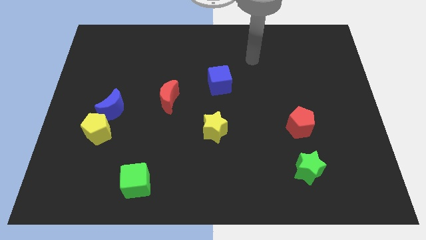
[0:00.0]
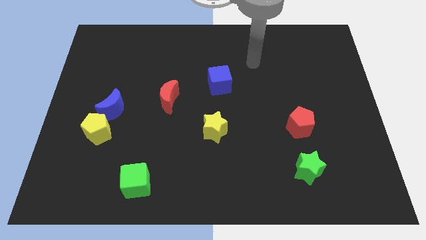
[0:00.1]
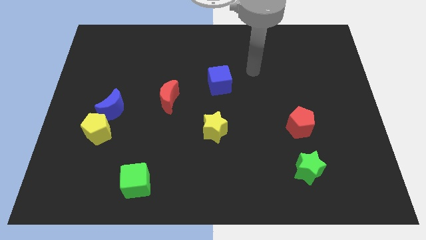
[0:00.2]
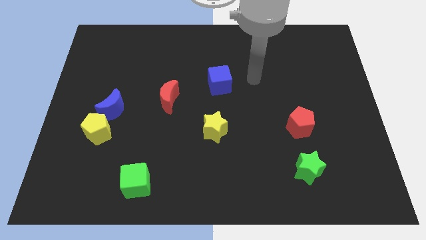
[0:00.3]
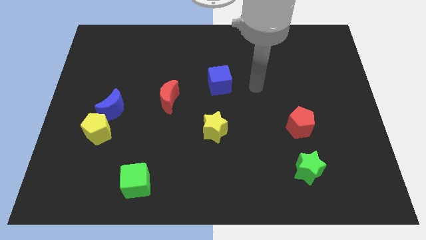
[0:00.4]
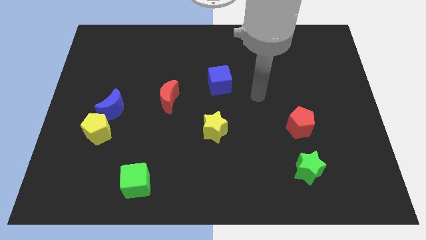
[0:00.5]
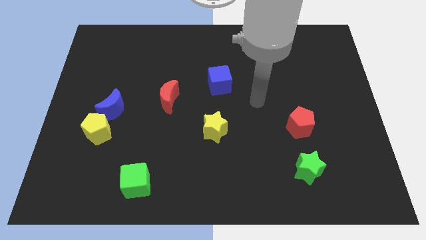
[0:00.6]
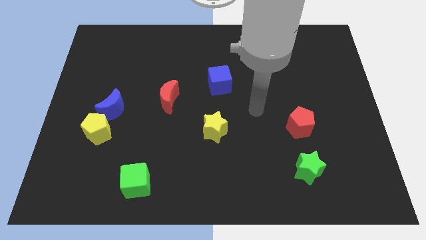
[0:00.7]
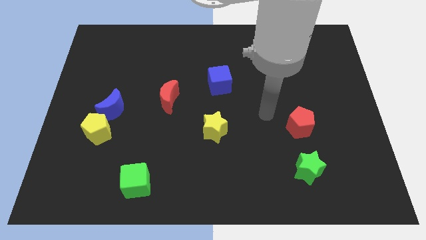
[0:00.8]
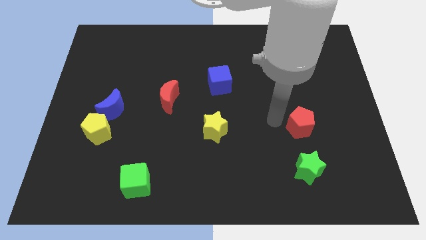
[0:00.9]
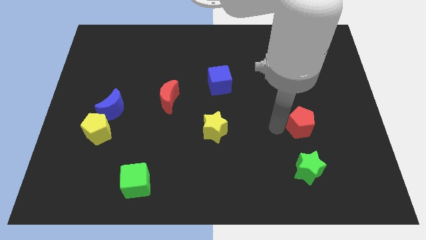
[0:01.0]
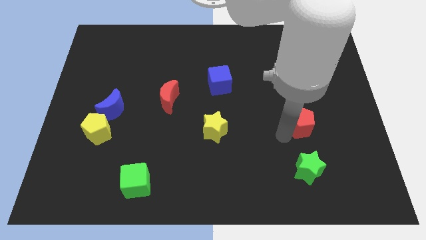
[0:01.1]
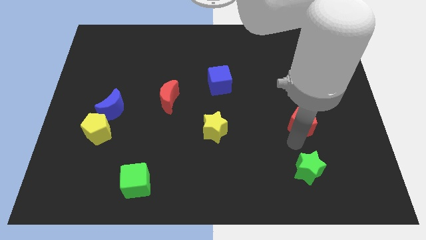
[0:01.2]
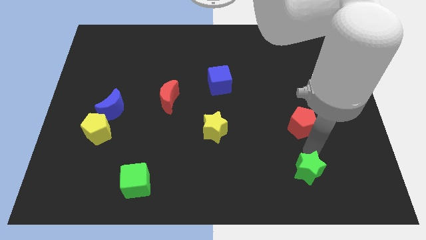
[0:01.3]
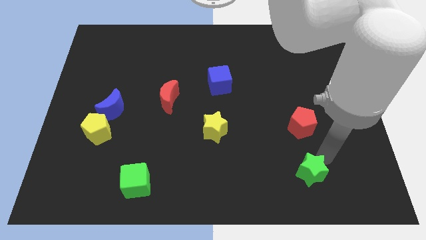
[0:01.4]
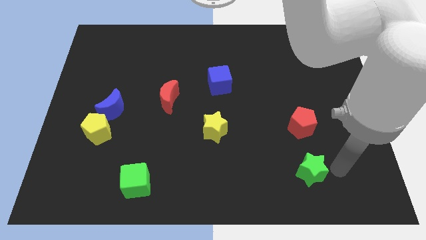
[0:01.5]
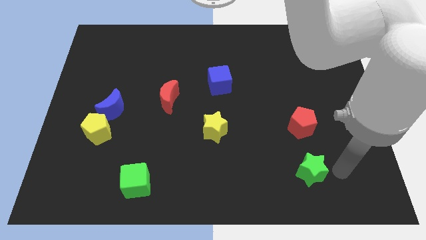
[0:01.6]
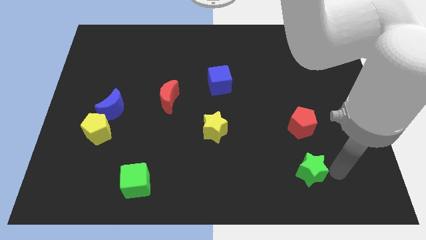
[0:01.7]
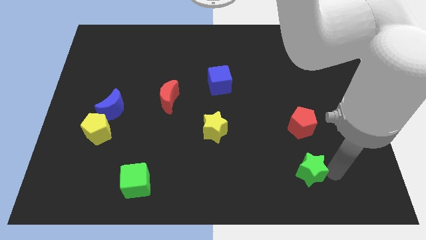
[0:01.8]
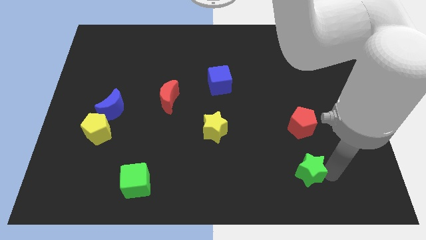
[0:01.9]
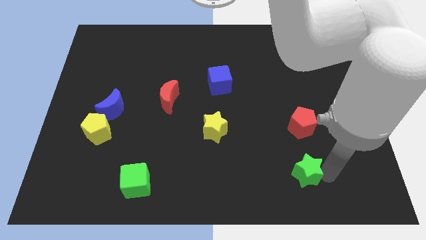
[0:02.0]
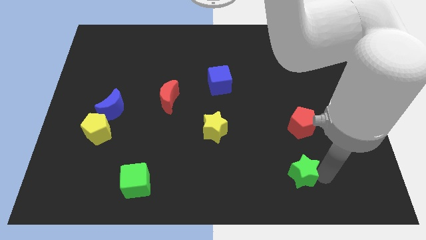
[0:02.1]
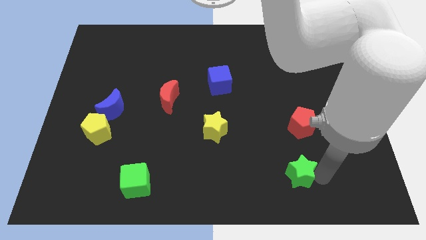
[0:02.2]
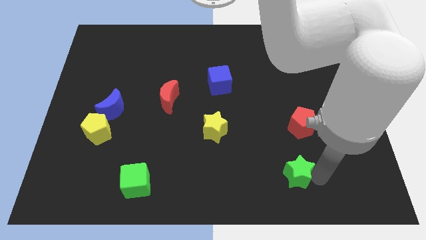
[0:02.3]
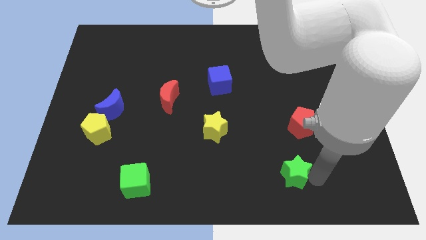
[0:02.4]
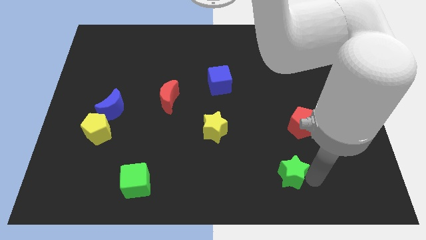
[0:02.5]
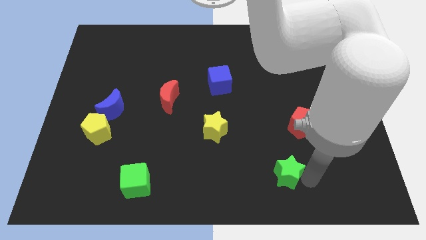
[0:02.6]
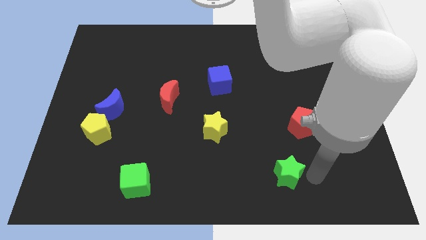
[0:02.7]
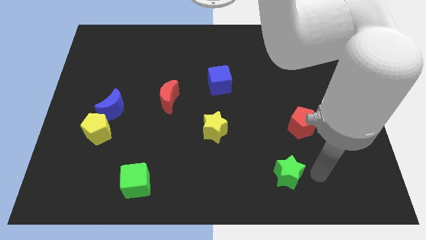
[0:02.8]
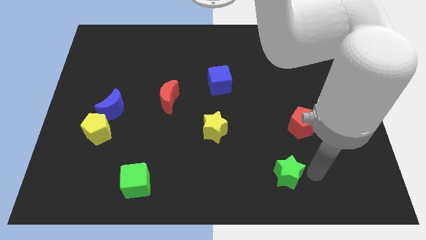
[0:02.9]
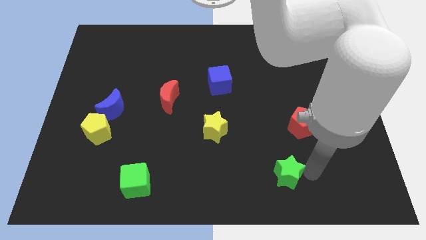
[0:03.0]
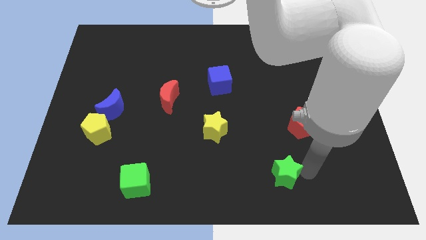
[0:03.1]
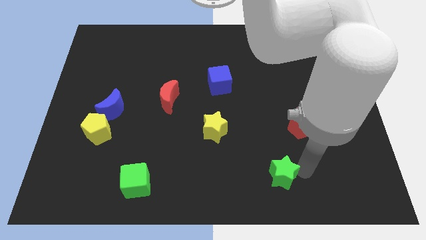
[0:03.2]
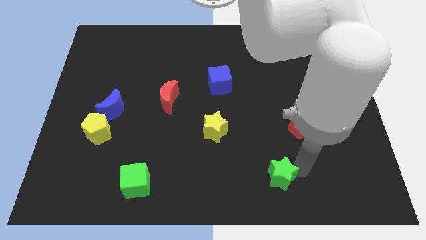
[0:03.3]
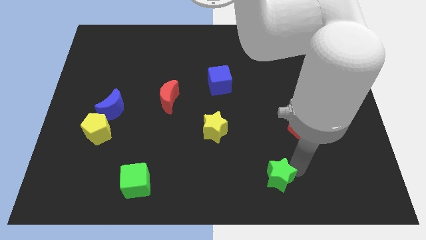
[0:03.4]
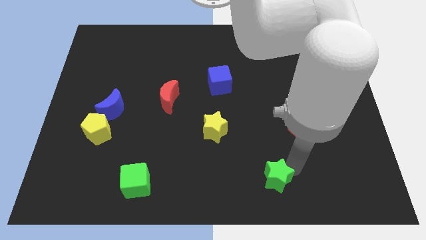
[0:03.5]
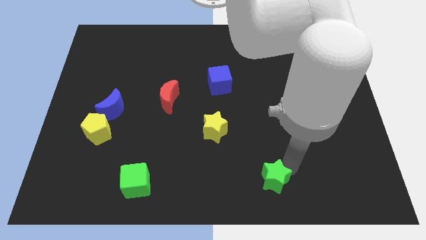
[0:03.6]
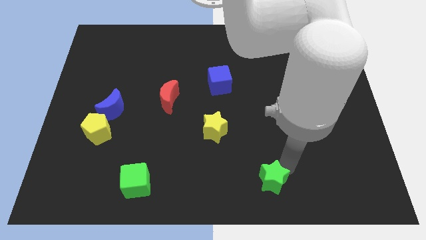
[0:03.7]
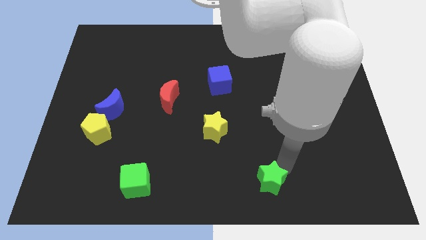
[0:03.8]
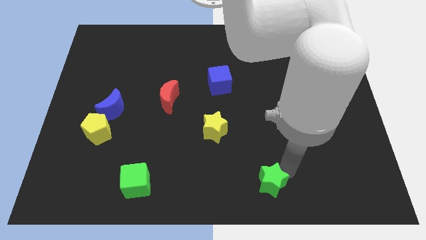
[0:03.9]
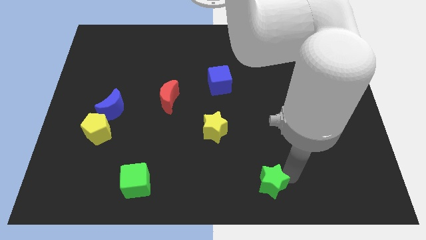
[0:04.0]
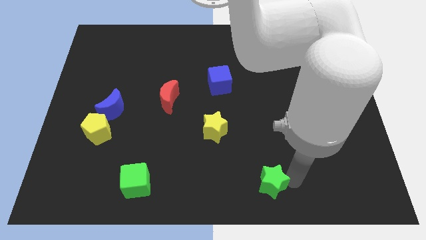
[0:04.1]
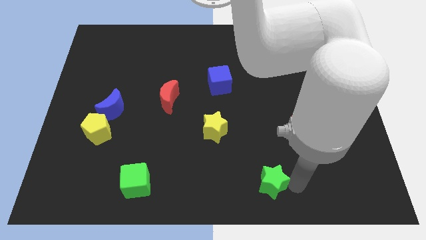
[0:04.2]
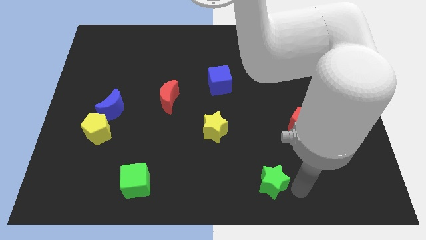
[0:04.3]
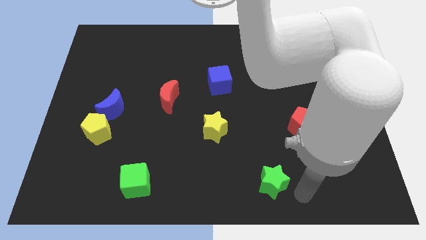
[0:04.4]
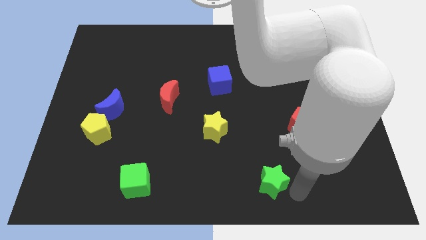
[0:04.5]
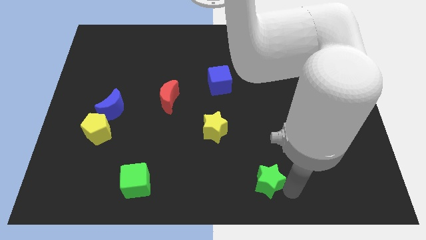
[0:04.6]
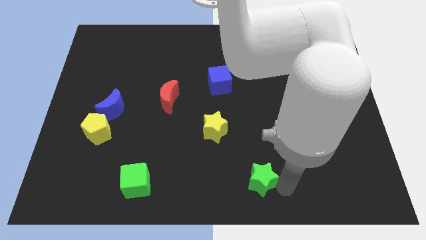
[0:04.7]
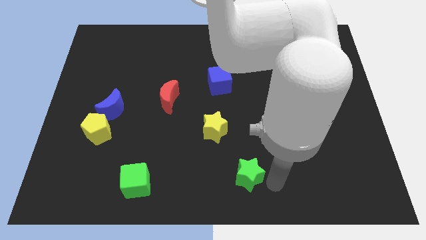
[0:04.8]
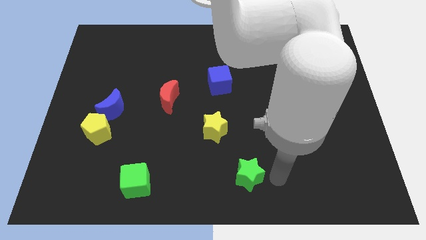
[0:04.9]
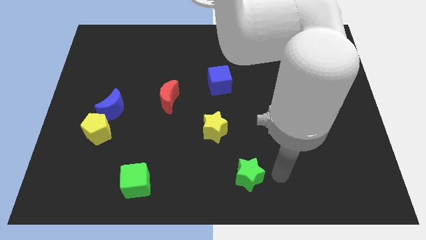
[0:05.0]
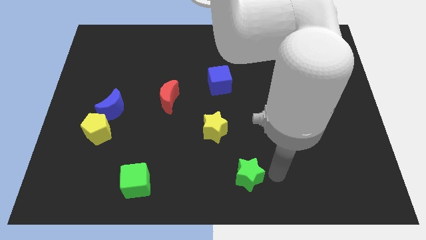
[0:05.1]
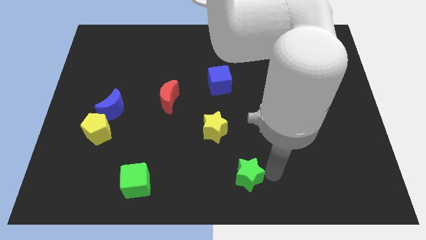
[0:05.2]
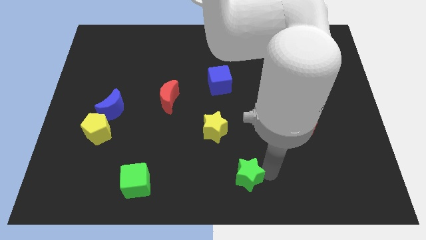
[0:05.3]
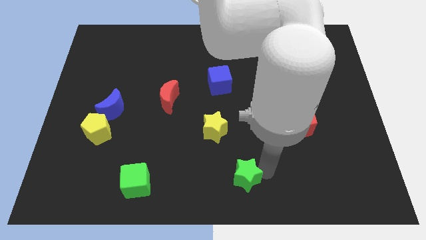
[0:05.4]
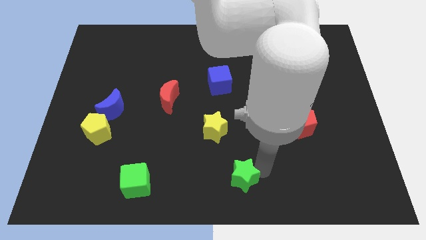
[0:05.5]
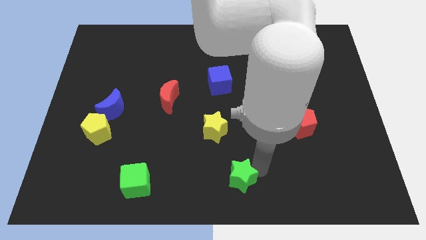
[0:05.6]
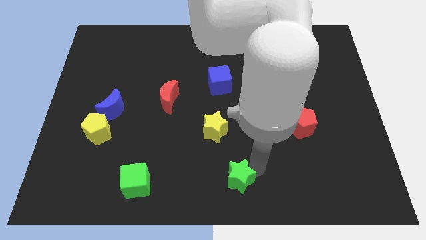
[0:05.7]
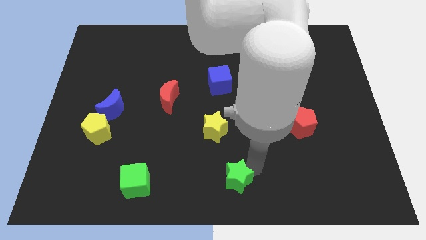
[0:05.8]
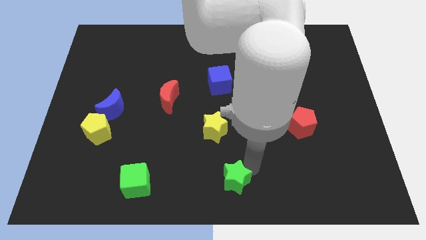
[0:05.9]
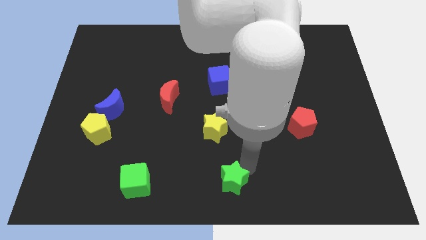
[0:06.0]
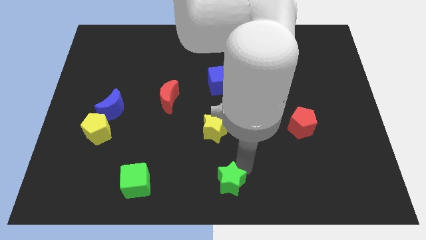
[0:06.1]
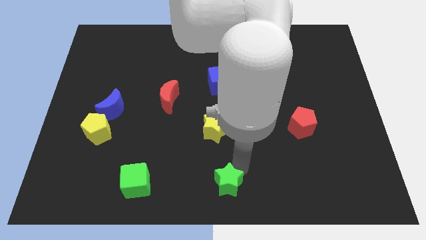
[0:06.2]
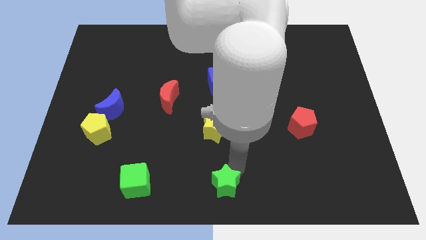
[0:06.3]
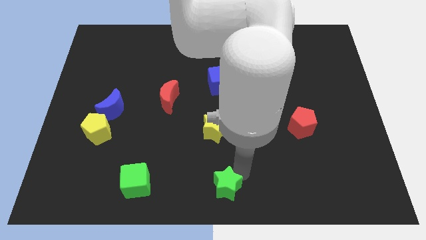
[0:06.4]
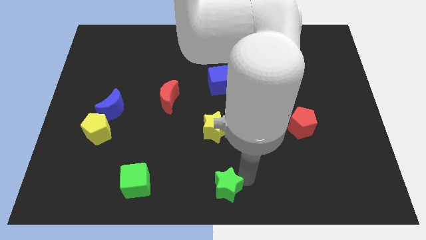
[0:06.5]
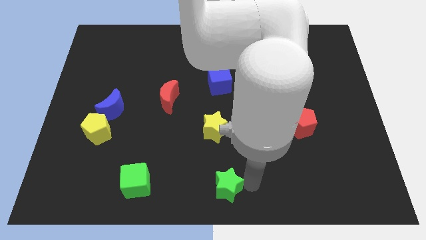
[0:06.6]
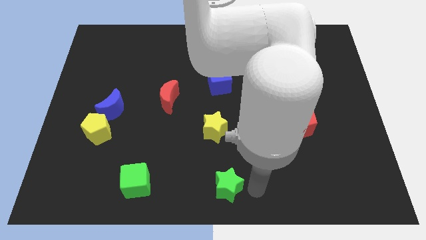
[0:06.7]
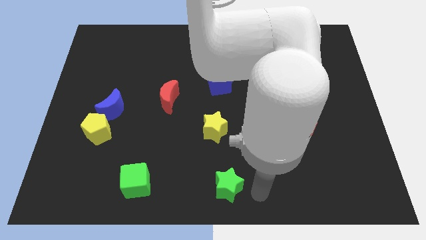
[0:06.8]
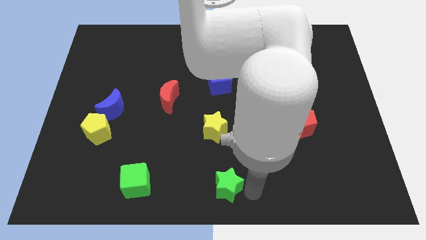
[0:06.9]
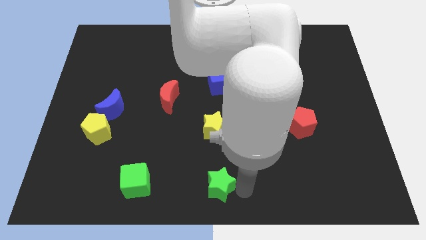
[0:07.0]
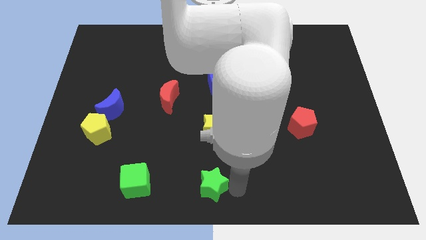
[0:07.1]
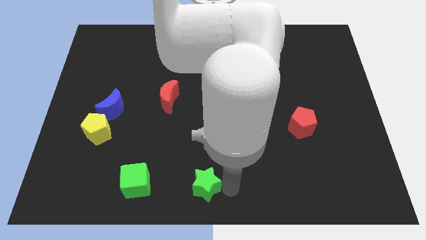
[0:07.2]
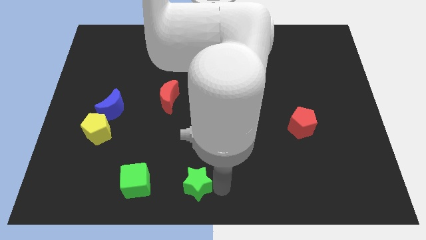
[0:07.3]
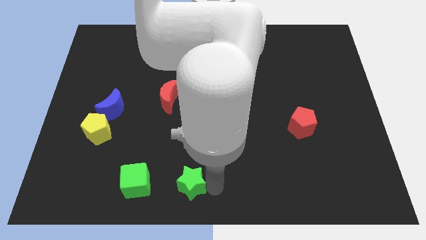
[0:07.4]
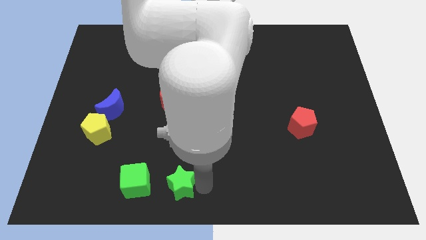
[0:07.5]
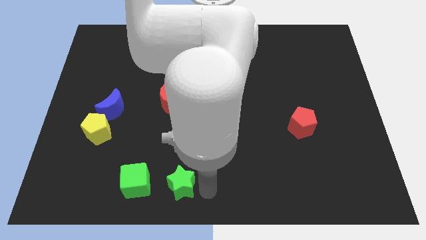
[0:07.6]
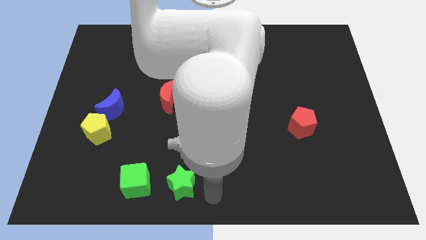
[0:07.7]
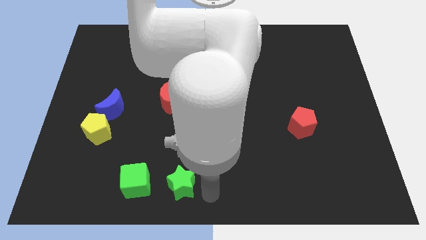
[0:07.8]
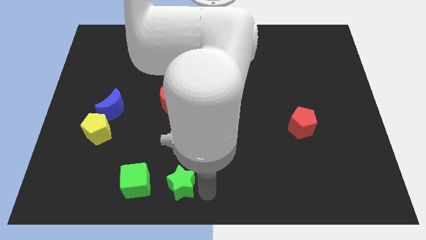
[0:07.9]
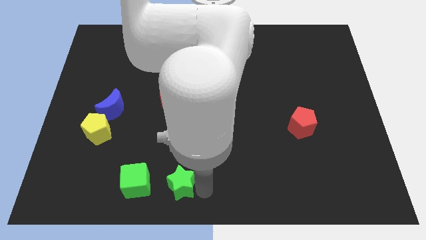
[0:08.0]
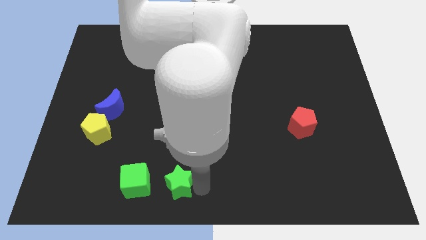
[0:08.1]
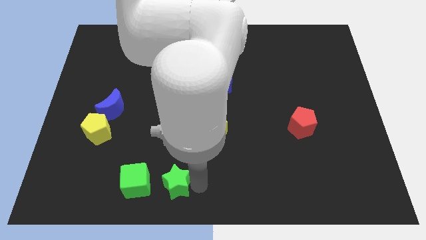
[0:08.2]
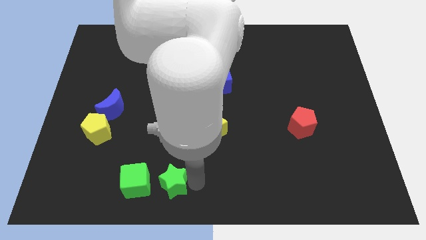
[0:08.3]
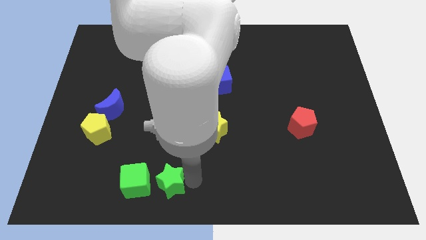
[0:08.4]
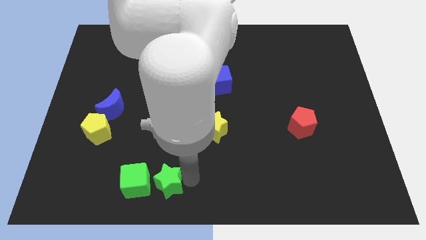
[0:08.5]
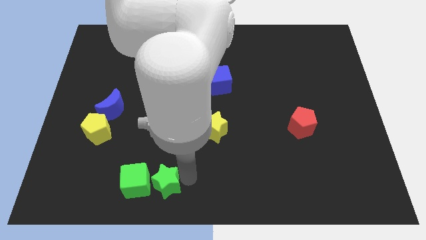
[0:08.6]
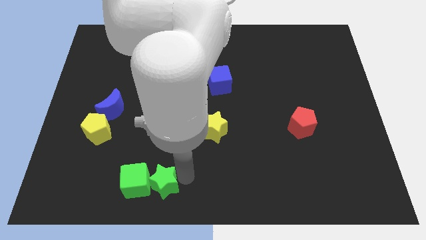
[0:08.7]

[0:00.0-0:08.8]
move the green star to the green cube
